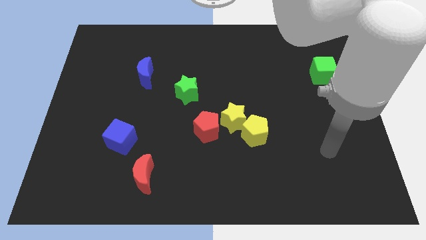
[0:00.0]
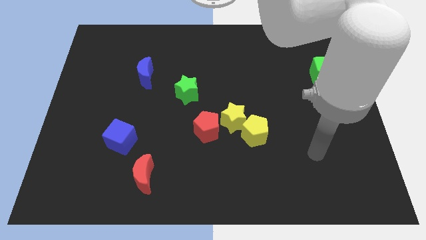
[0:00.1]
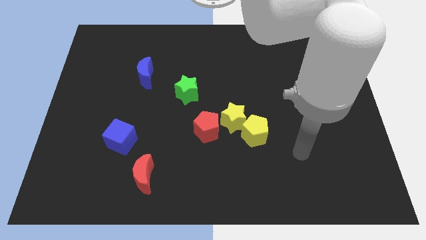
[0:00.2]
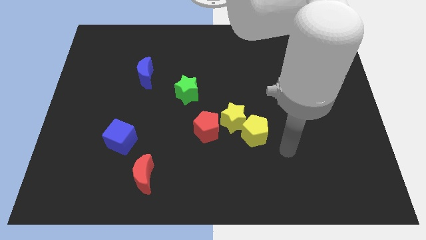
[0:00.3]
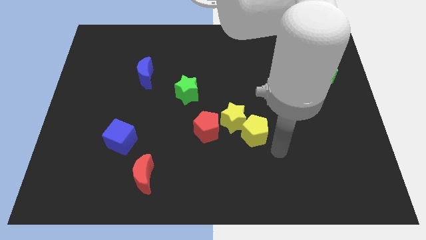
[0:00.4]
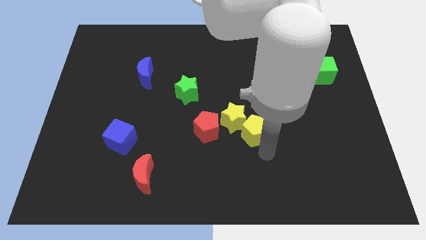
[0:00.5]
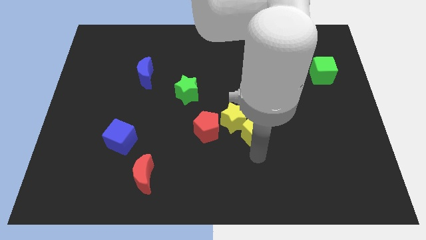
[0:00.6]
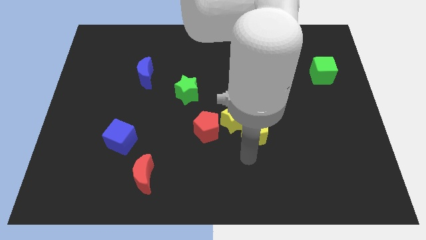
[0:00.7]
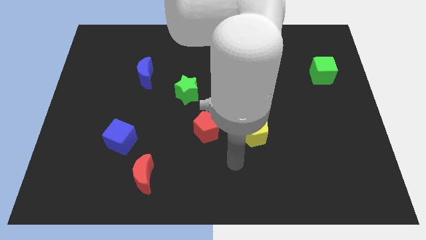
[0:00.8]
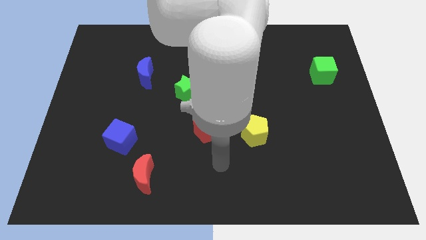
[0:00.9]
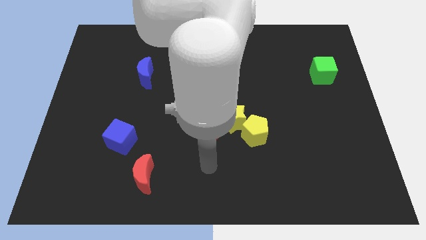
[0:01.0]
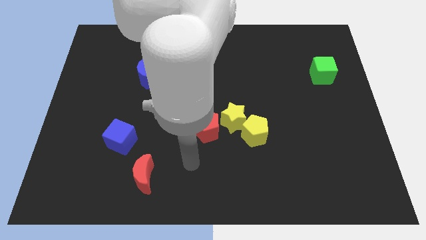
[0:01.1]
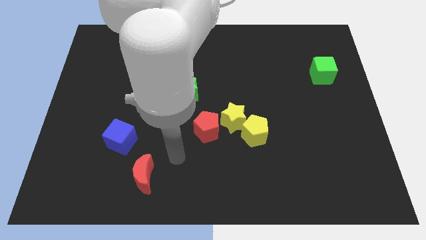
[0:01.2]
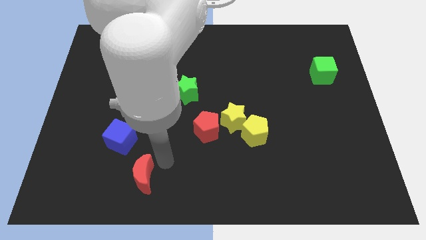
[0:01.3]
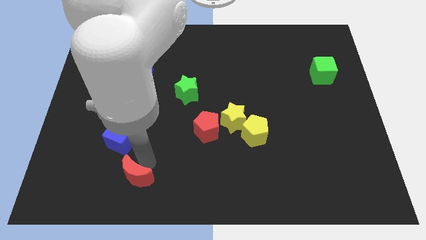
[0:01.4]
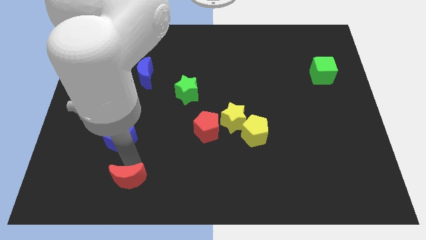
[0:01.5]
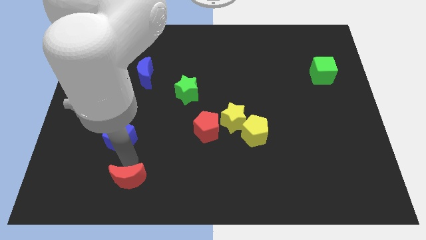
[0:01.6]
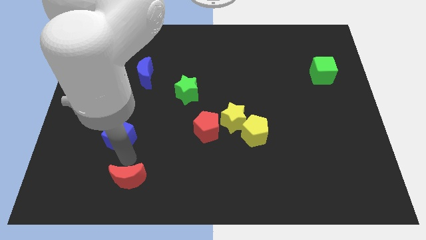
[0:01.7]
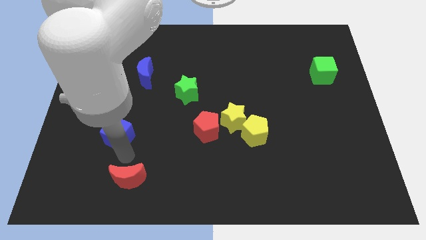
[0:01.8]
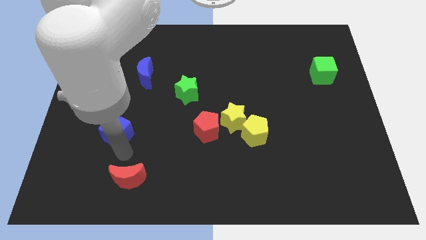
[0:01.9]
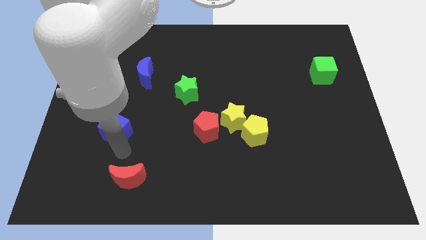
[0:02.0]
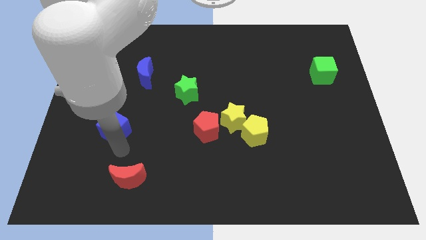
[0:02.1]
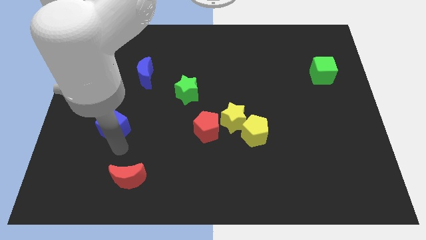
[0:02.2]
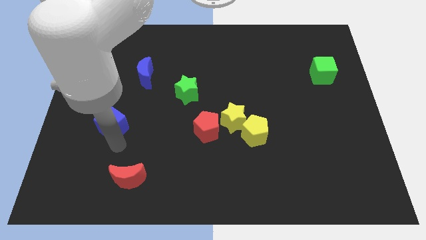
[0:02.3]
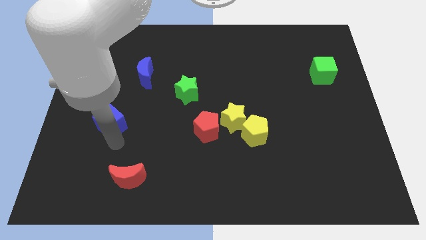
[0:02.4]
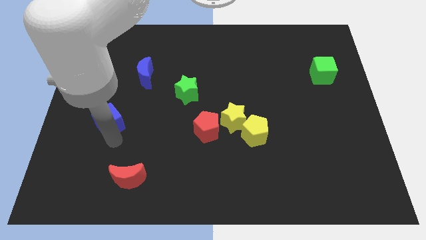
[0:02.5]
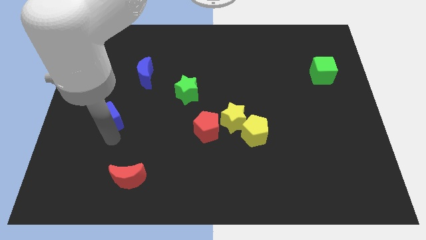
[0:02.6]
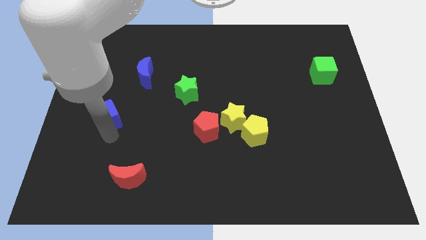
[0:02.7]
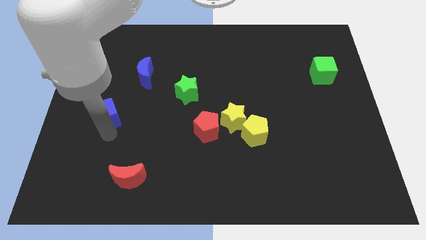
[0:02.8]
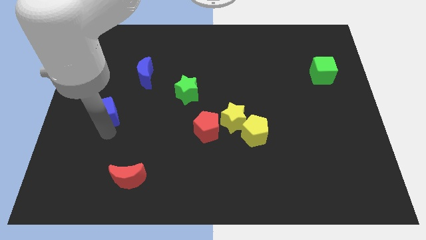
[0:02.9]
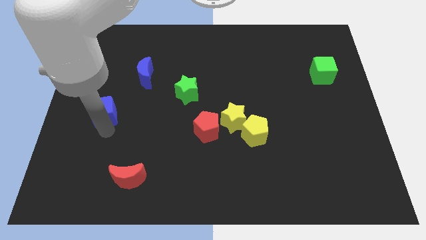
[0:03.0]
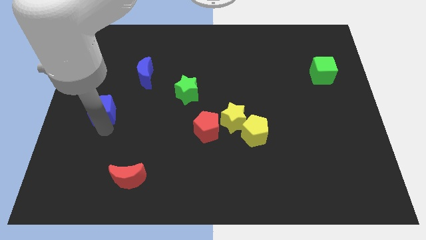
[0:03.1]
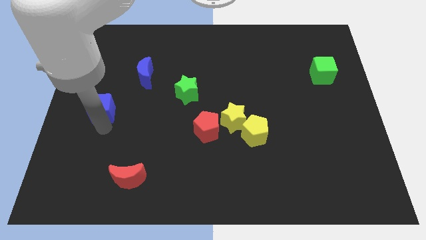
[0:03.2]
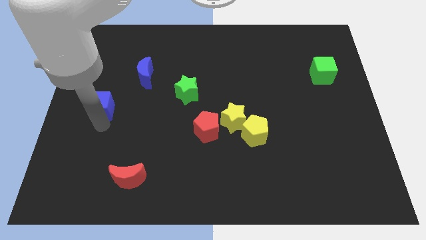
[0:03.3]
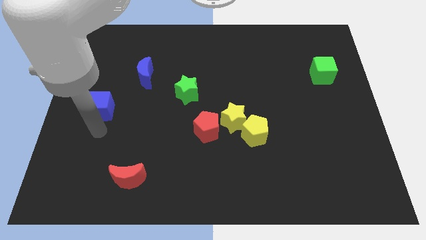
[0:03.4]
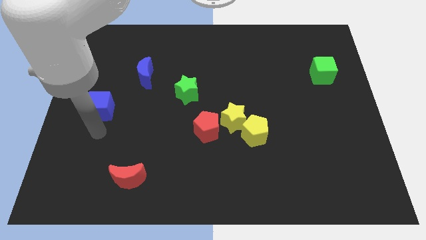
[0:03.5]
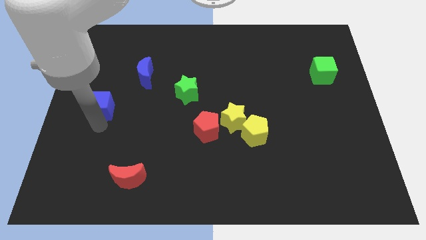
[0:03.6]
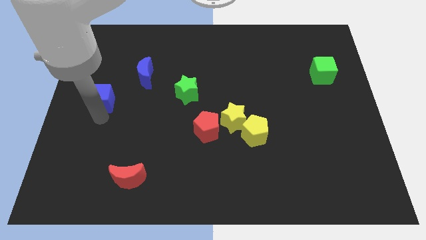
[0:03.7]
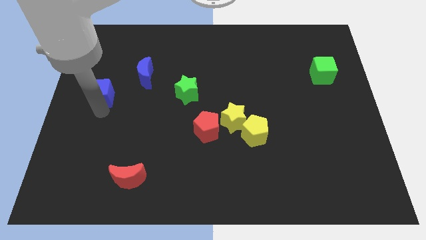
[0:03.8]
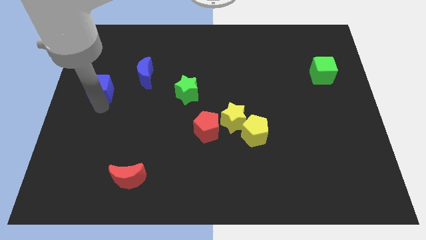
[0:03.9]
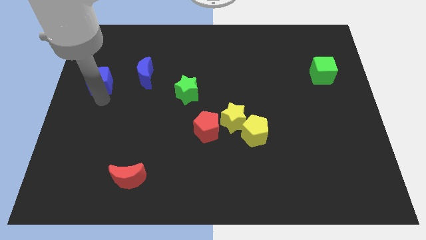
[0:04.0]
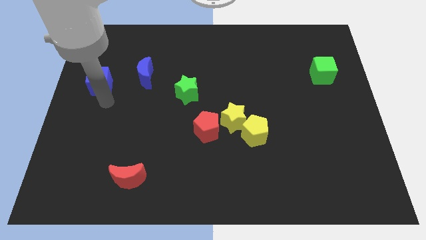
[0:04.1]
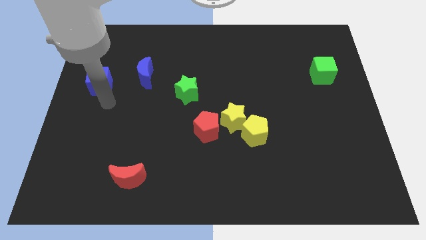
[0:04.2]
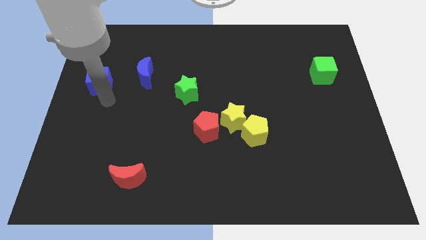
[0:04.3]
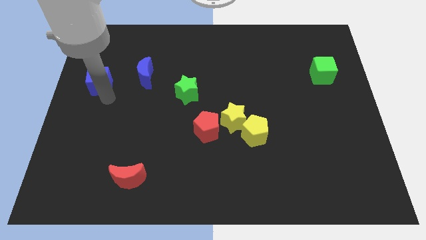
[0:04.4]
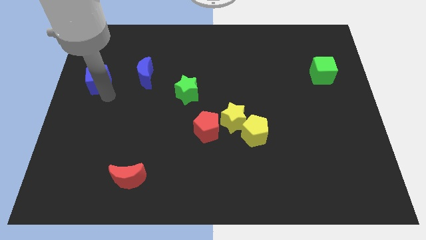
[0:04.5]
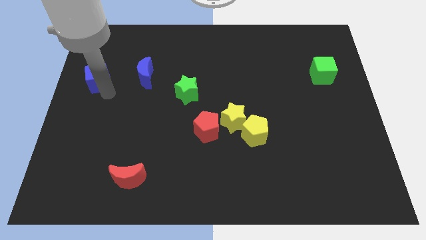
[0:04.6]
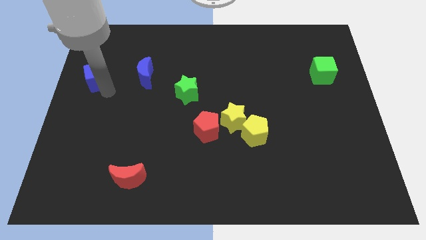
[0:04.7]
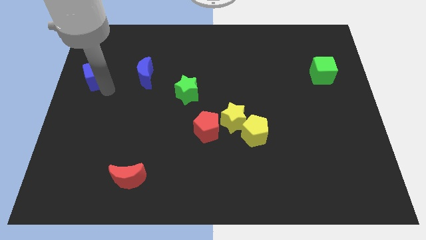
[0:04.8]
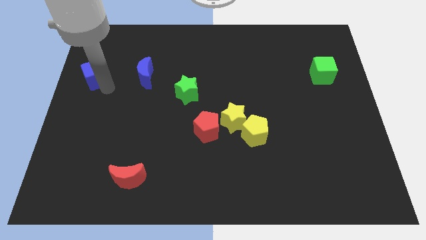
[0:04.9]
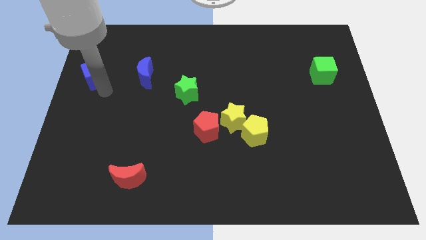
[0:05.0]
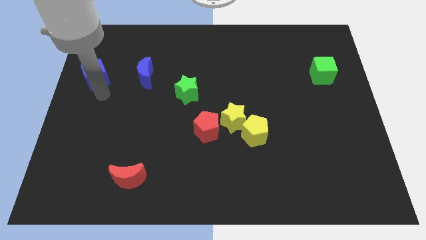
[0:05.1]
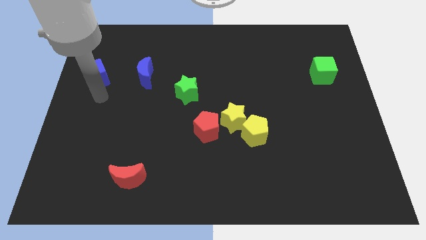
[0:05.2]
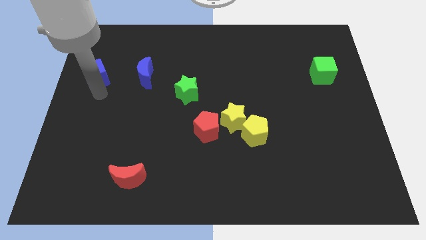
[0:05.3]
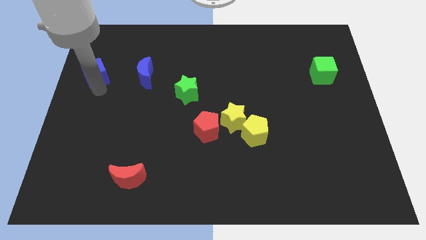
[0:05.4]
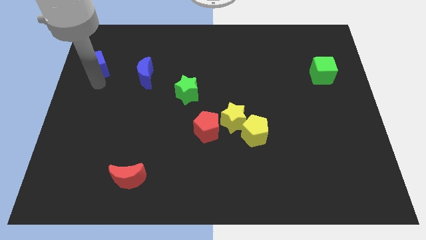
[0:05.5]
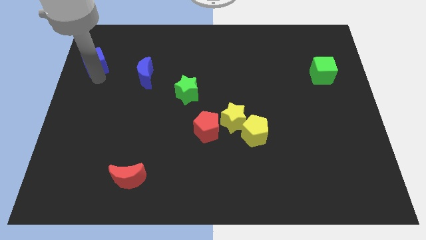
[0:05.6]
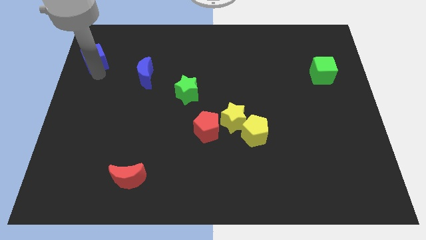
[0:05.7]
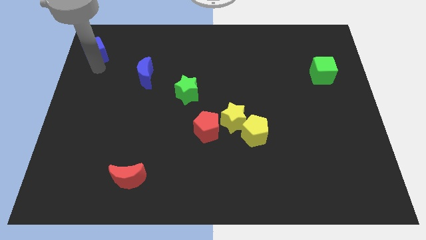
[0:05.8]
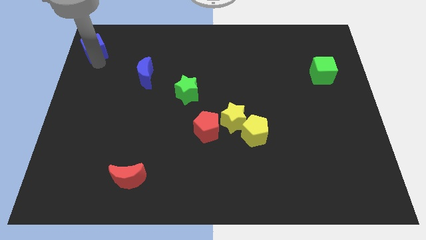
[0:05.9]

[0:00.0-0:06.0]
put the blue cube to the upper left corner

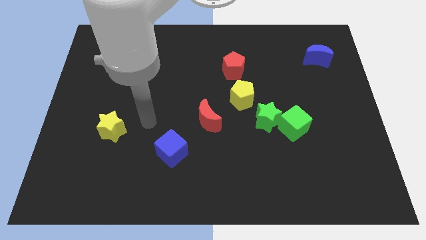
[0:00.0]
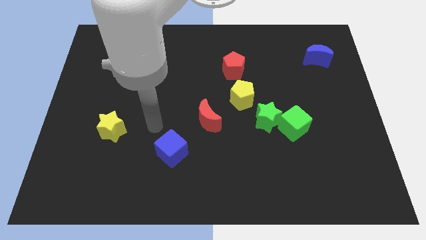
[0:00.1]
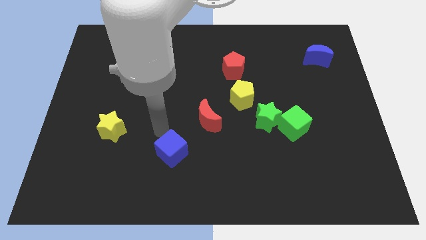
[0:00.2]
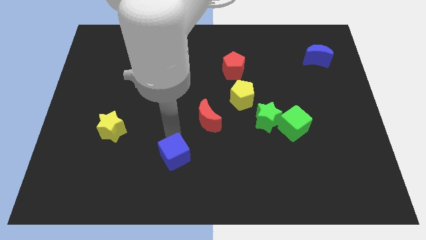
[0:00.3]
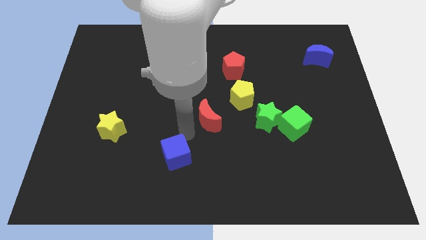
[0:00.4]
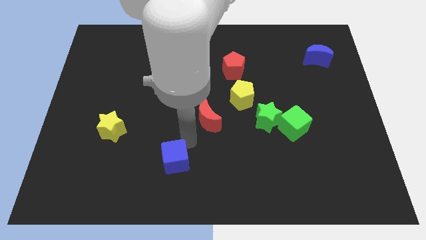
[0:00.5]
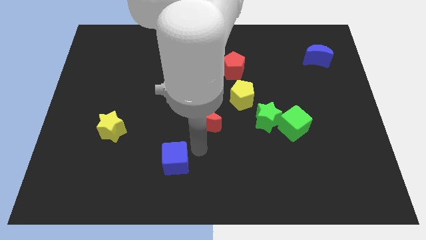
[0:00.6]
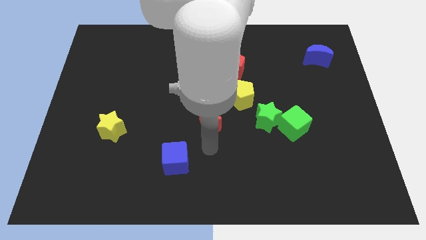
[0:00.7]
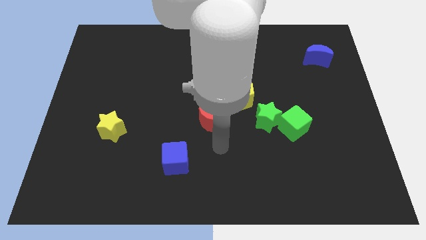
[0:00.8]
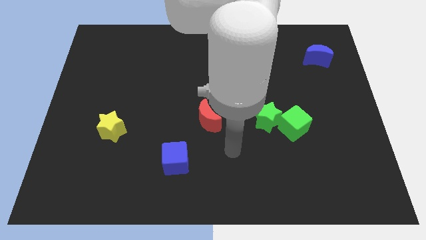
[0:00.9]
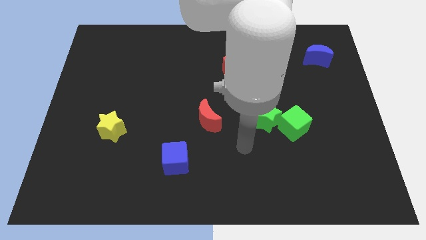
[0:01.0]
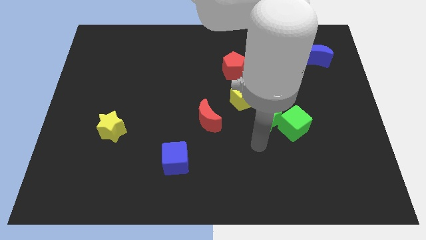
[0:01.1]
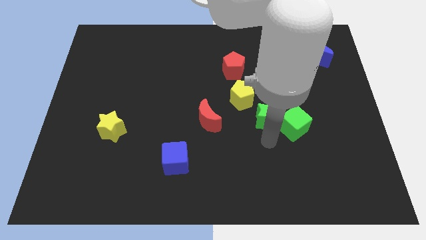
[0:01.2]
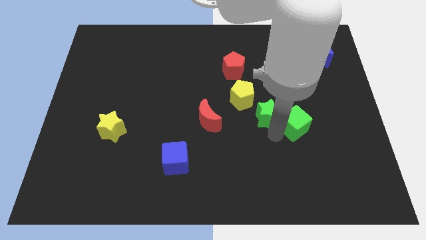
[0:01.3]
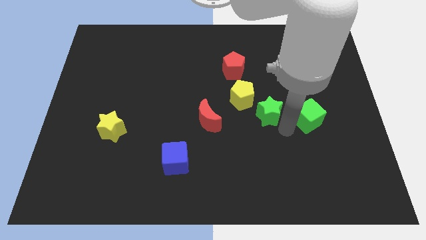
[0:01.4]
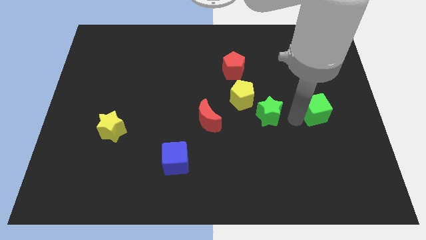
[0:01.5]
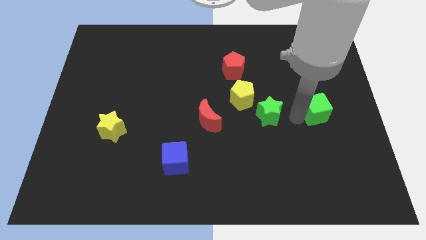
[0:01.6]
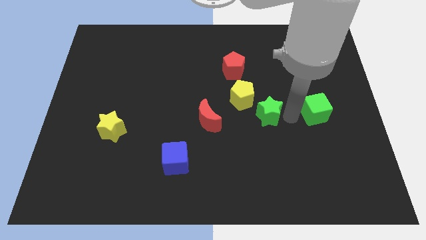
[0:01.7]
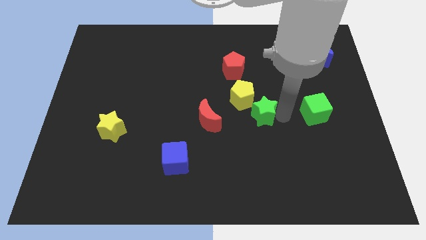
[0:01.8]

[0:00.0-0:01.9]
push the green star to the center of the board

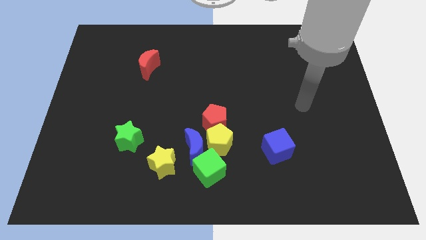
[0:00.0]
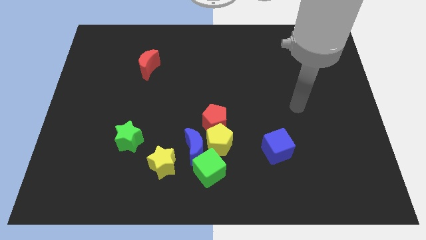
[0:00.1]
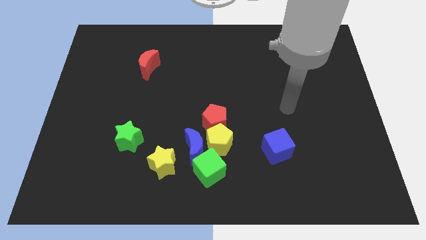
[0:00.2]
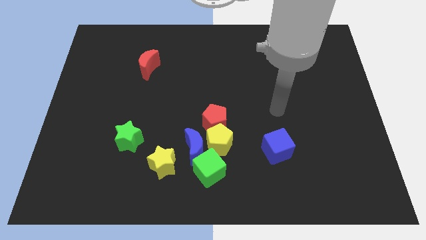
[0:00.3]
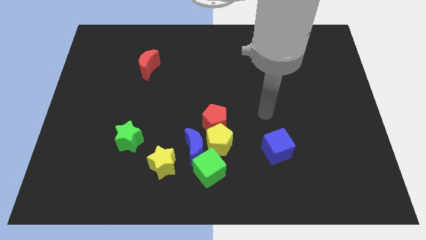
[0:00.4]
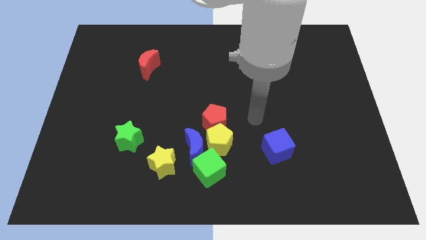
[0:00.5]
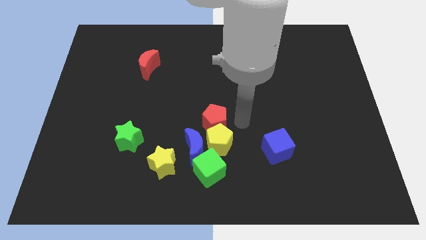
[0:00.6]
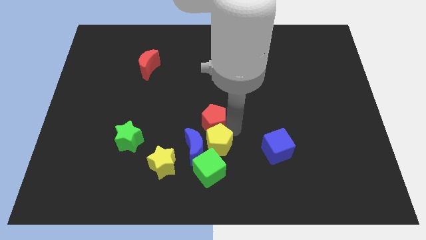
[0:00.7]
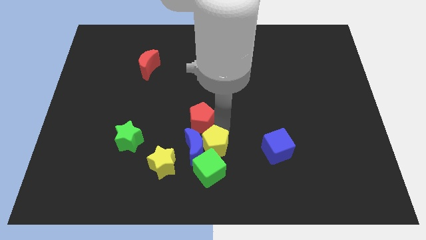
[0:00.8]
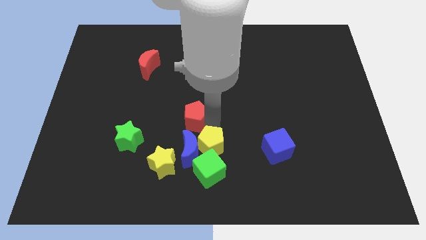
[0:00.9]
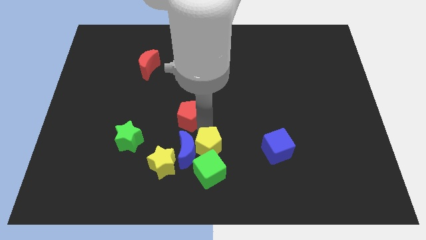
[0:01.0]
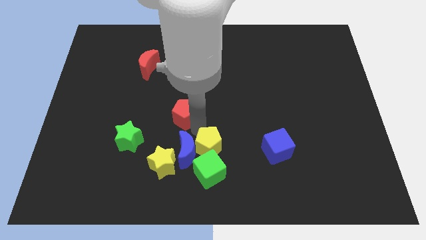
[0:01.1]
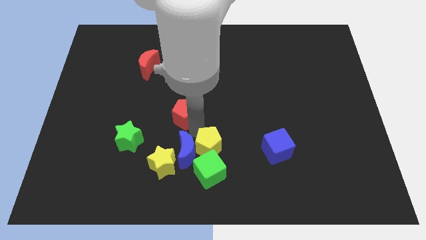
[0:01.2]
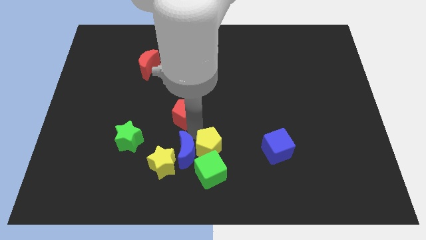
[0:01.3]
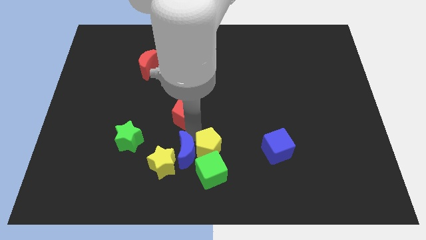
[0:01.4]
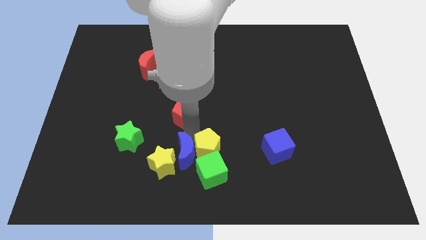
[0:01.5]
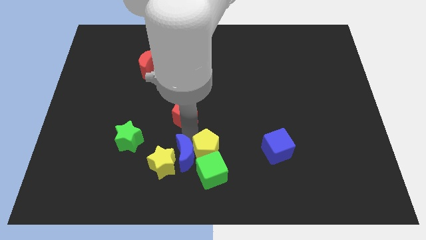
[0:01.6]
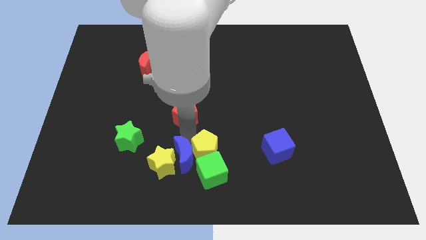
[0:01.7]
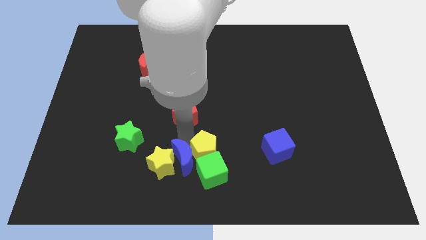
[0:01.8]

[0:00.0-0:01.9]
put the blue moon to the bottom
